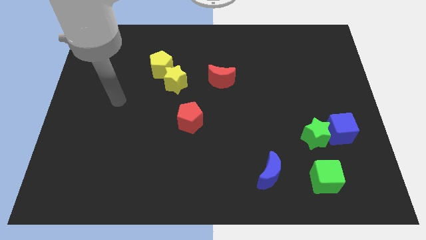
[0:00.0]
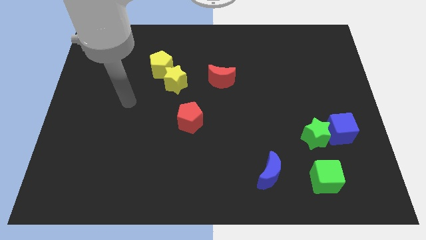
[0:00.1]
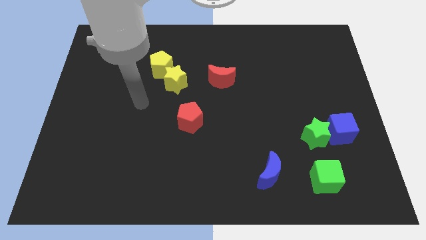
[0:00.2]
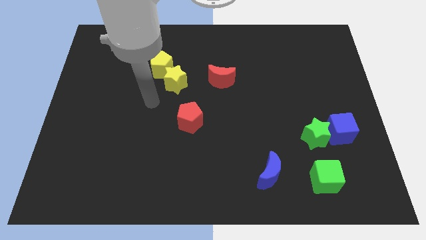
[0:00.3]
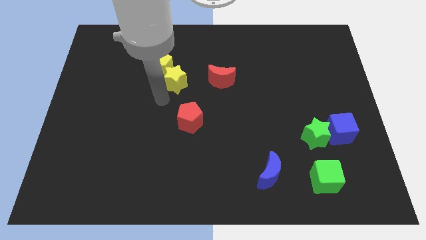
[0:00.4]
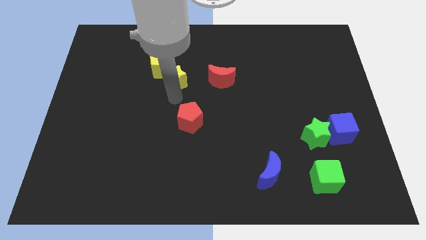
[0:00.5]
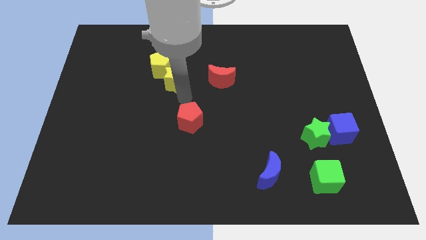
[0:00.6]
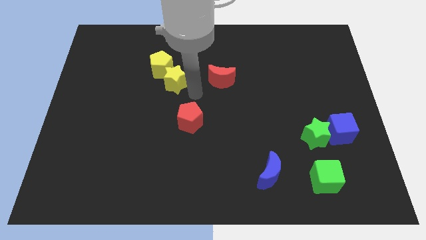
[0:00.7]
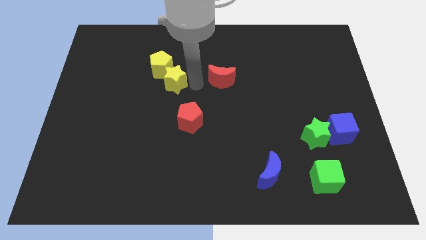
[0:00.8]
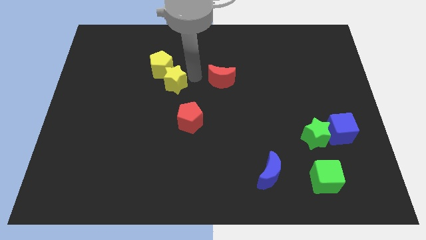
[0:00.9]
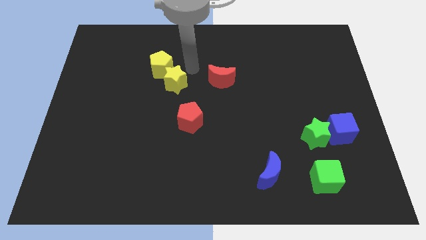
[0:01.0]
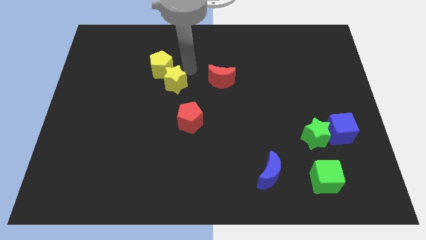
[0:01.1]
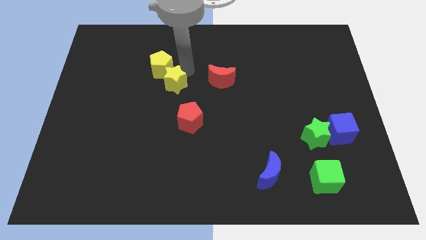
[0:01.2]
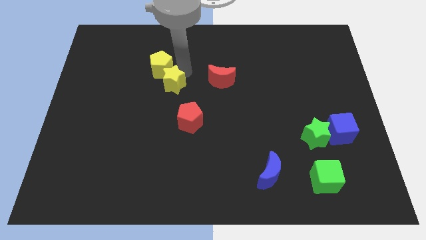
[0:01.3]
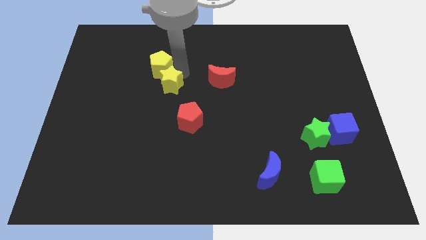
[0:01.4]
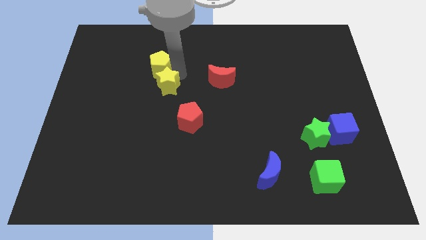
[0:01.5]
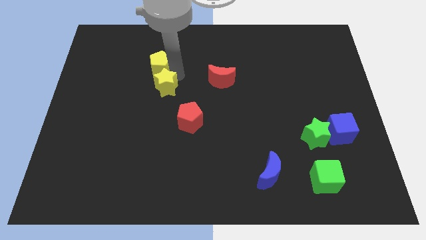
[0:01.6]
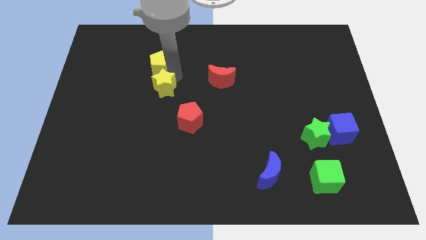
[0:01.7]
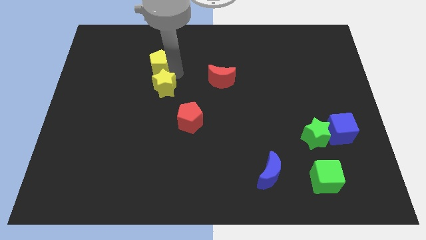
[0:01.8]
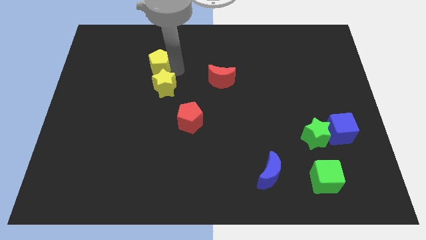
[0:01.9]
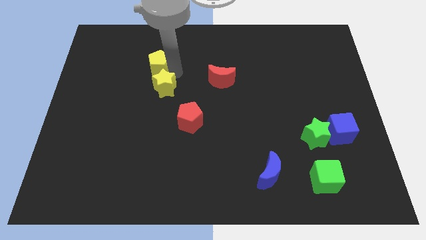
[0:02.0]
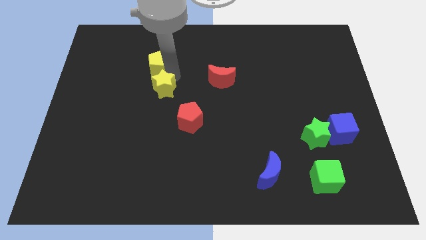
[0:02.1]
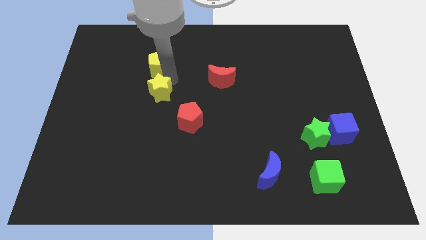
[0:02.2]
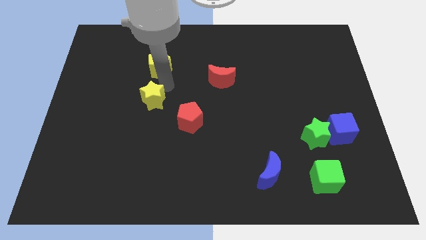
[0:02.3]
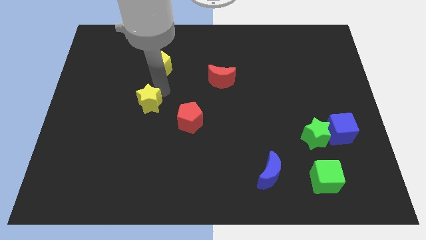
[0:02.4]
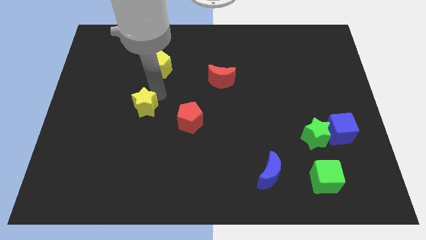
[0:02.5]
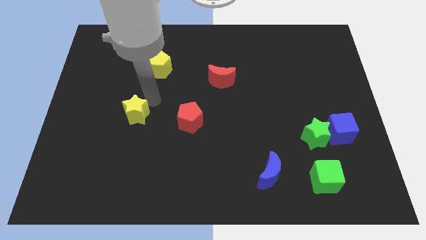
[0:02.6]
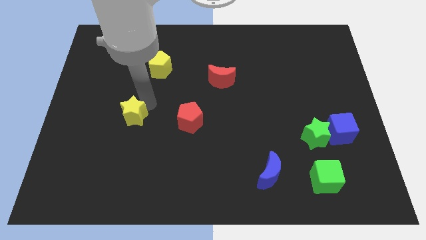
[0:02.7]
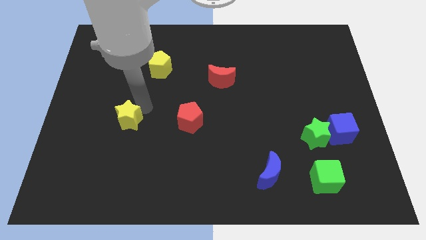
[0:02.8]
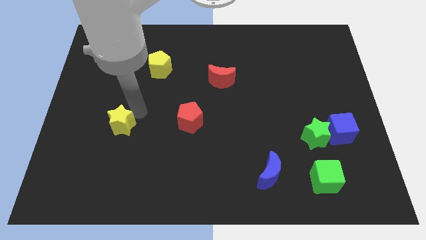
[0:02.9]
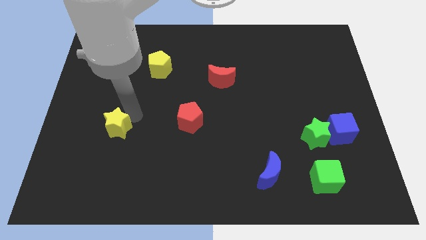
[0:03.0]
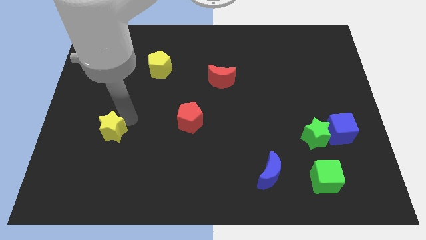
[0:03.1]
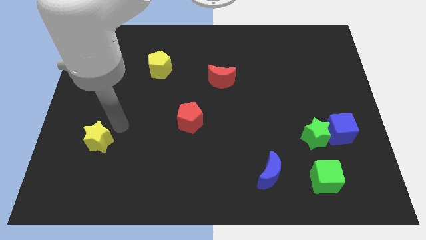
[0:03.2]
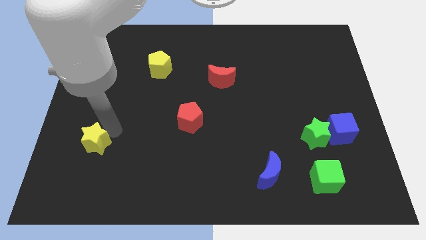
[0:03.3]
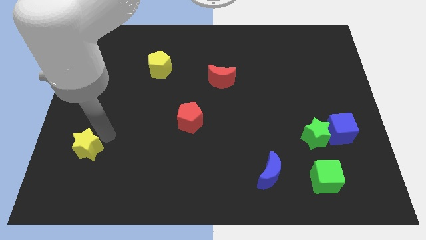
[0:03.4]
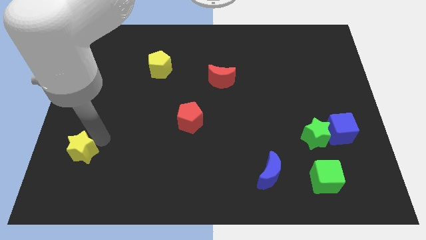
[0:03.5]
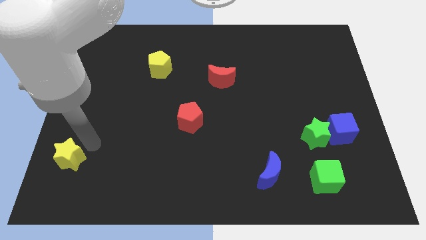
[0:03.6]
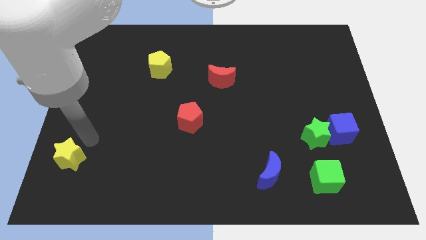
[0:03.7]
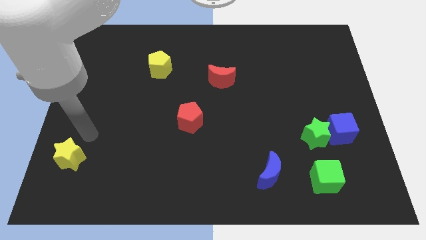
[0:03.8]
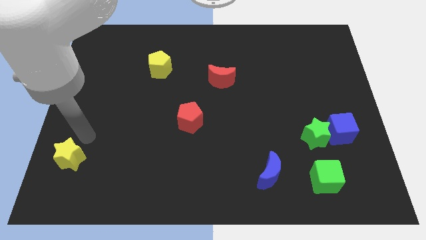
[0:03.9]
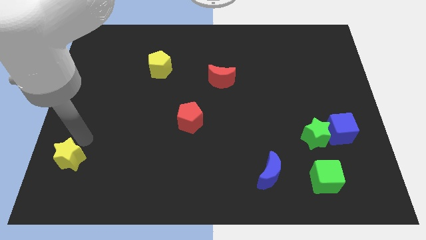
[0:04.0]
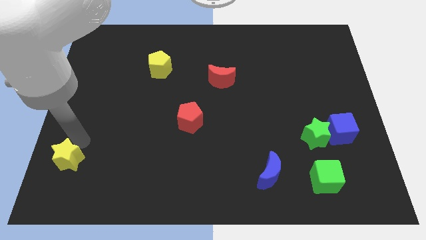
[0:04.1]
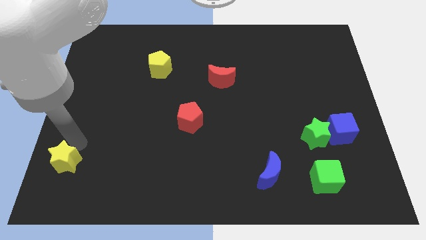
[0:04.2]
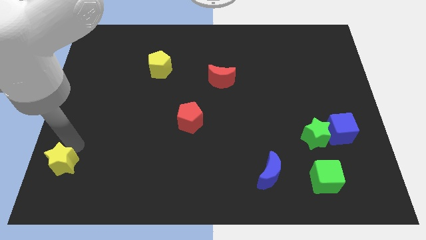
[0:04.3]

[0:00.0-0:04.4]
move the yellow star to the bottom left

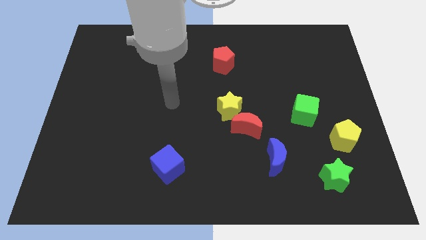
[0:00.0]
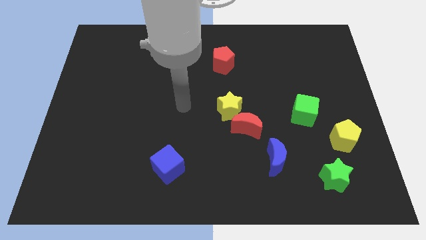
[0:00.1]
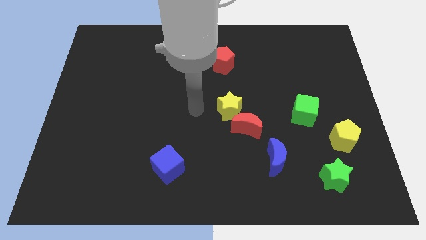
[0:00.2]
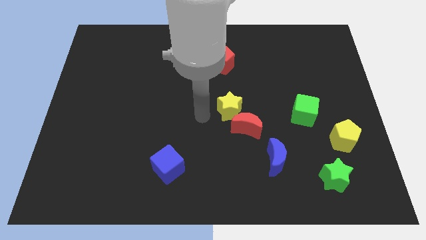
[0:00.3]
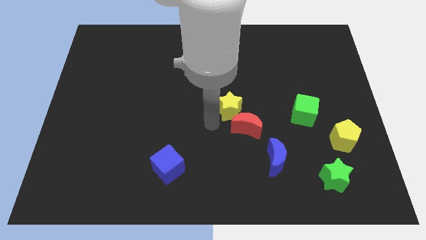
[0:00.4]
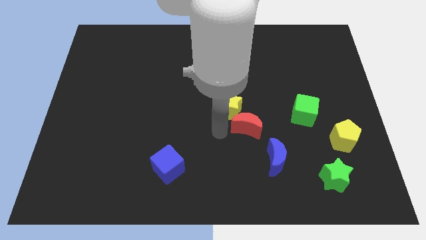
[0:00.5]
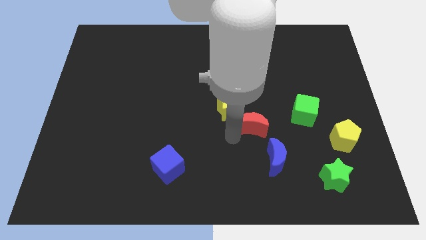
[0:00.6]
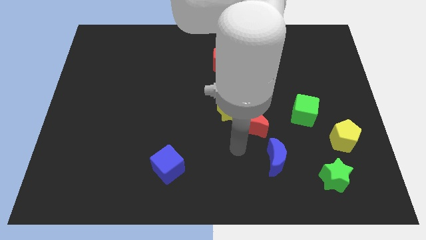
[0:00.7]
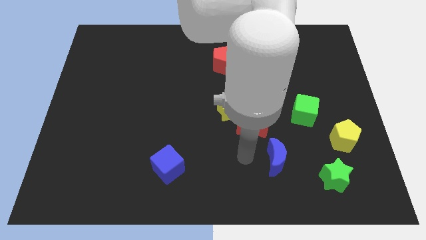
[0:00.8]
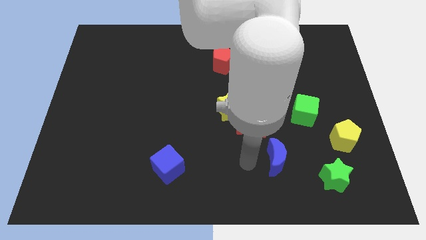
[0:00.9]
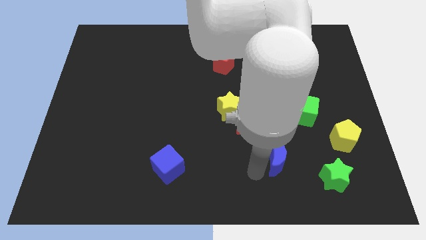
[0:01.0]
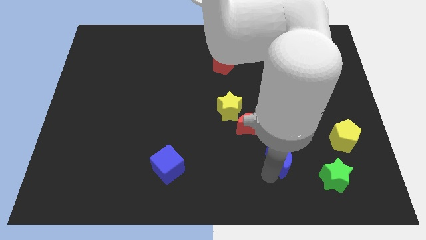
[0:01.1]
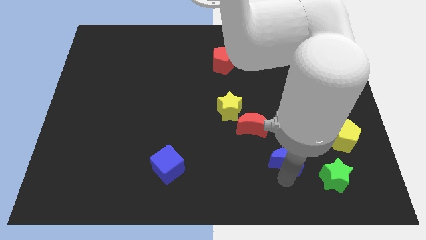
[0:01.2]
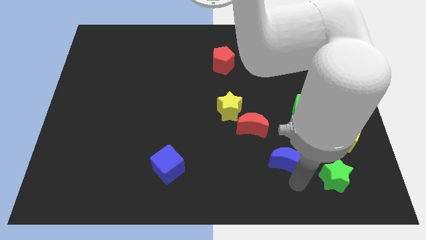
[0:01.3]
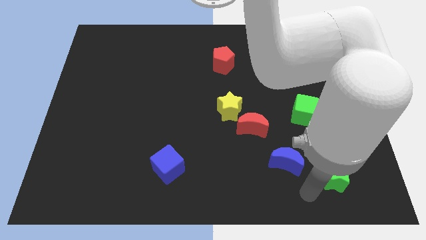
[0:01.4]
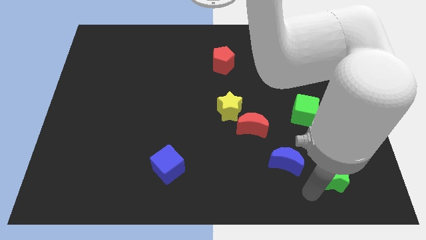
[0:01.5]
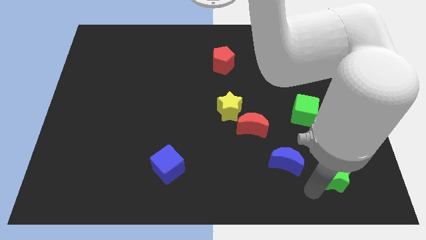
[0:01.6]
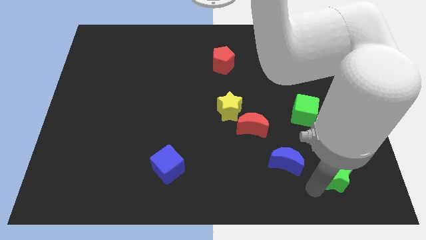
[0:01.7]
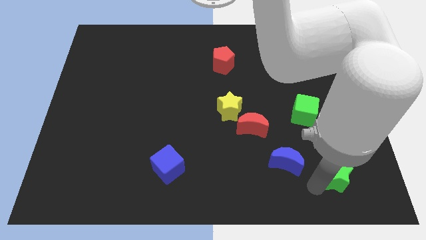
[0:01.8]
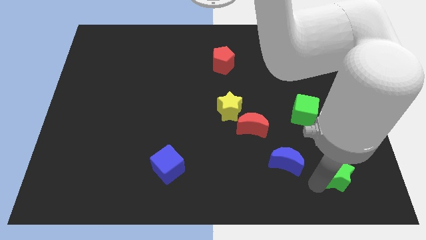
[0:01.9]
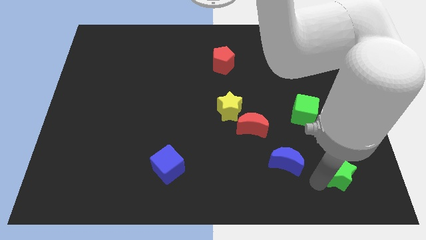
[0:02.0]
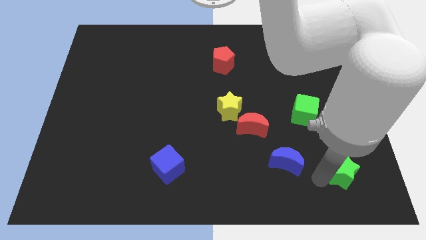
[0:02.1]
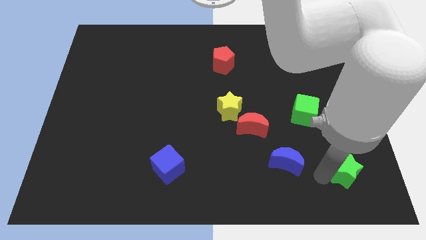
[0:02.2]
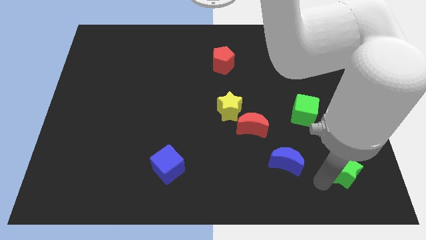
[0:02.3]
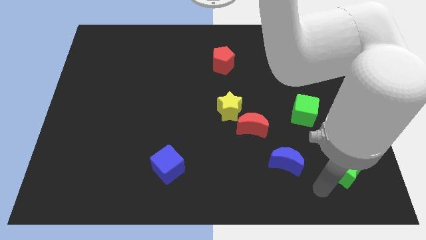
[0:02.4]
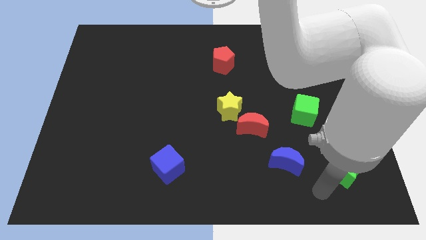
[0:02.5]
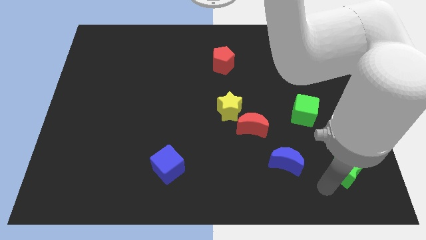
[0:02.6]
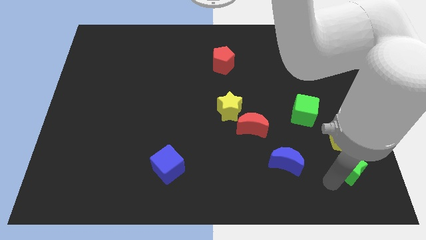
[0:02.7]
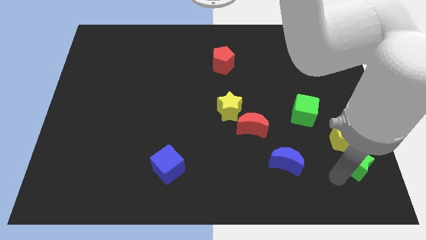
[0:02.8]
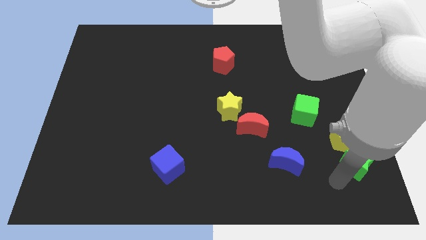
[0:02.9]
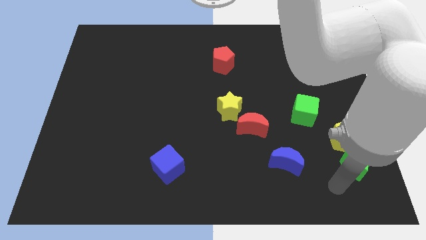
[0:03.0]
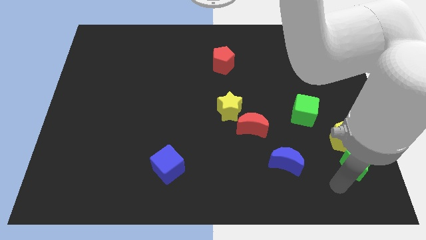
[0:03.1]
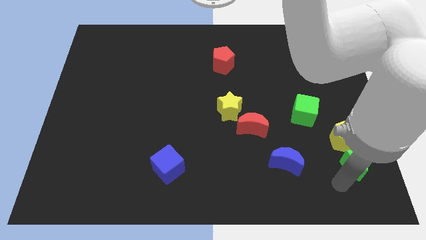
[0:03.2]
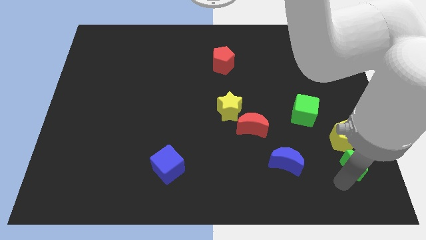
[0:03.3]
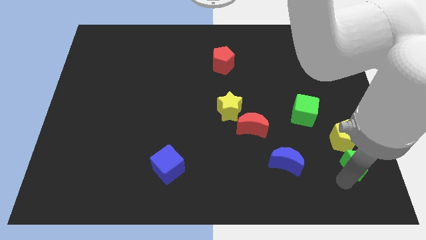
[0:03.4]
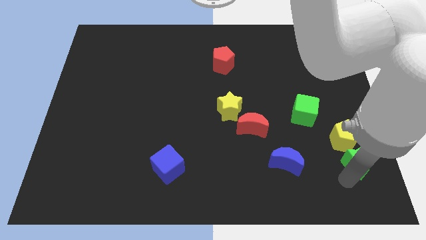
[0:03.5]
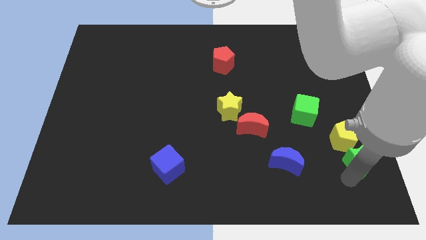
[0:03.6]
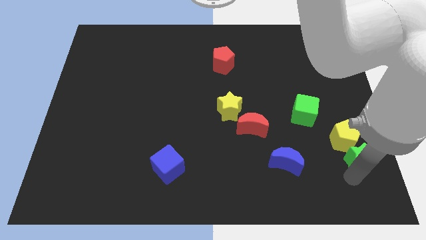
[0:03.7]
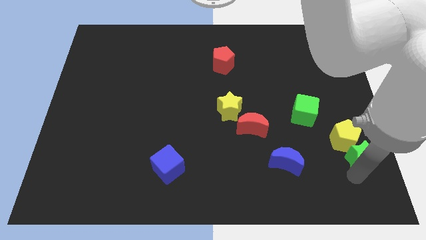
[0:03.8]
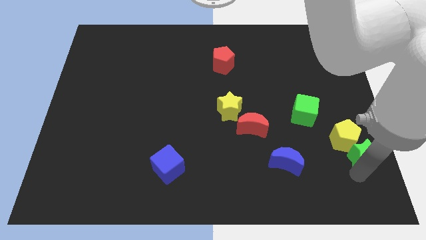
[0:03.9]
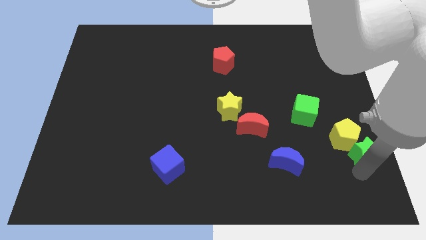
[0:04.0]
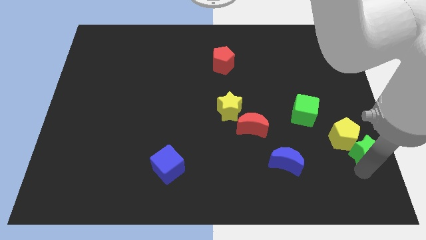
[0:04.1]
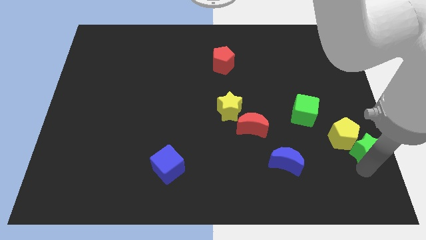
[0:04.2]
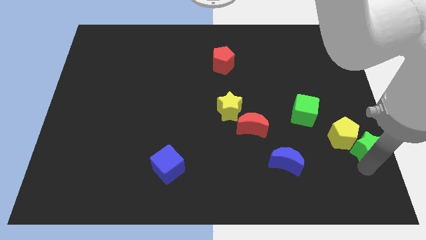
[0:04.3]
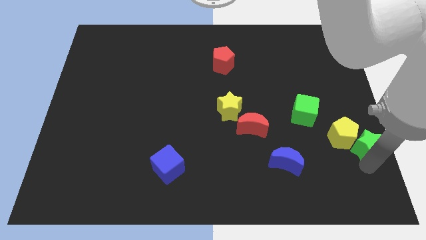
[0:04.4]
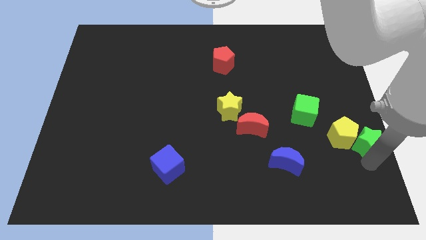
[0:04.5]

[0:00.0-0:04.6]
push the green star to the right side of the board
